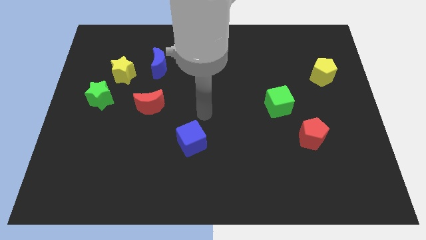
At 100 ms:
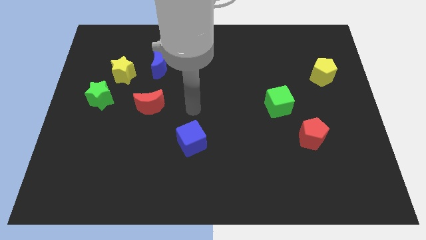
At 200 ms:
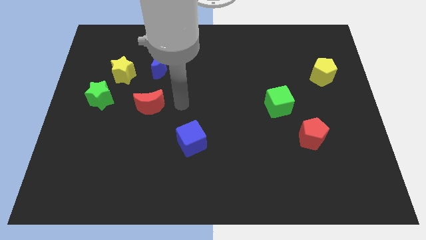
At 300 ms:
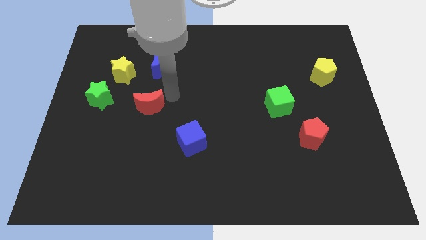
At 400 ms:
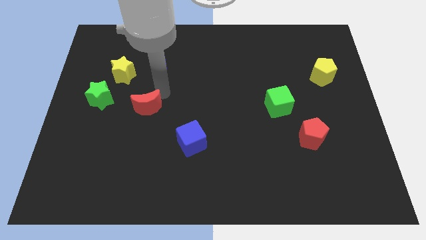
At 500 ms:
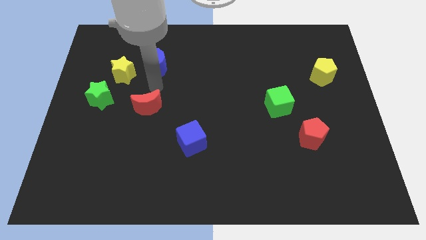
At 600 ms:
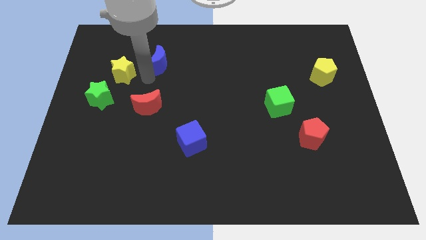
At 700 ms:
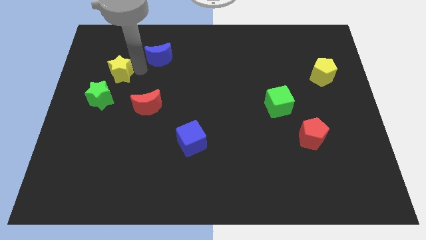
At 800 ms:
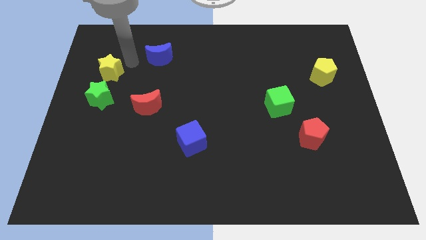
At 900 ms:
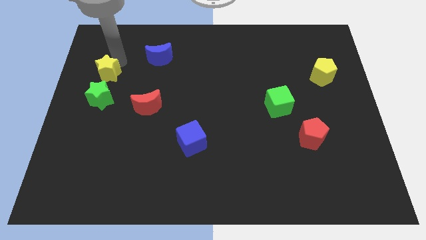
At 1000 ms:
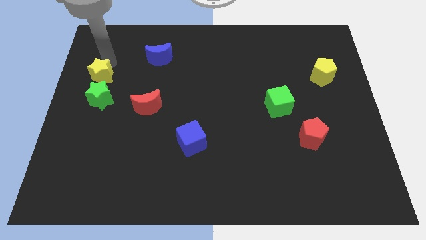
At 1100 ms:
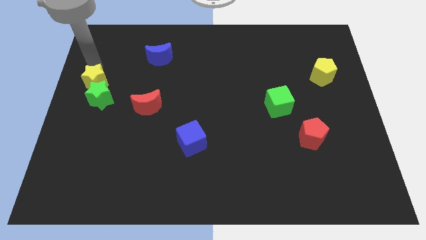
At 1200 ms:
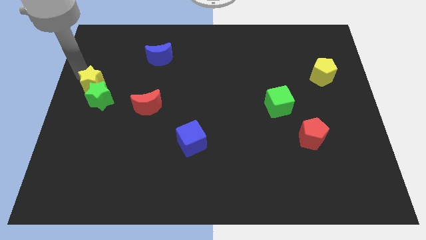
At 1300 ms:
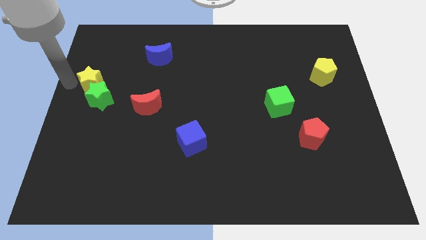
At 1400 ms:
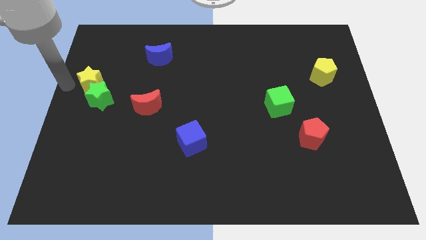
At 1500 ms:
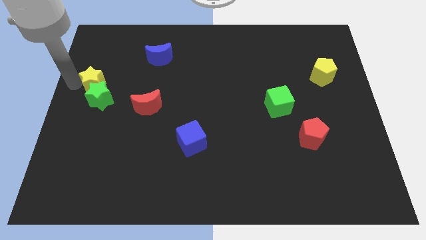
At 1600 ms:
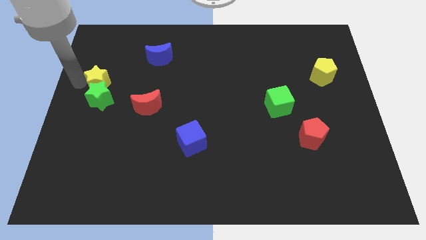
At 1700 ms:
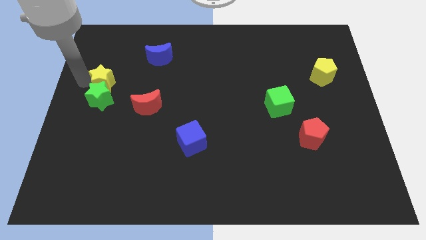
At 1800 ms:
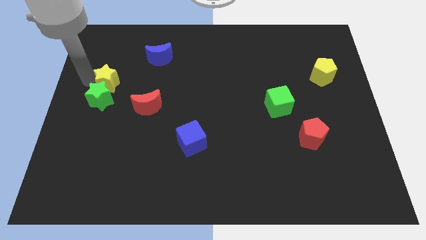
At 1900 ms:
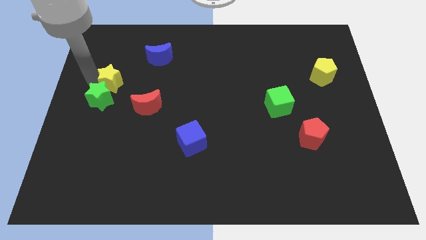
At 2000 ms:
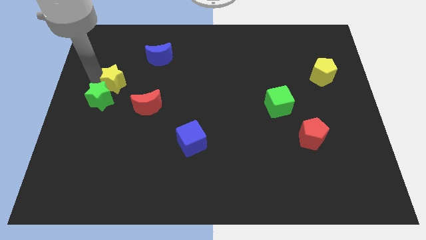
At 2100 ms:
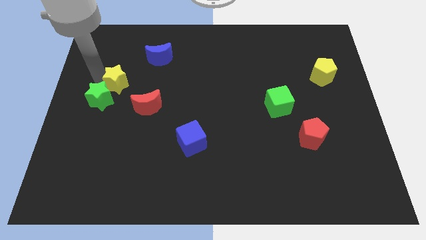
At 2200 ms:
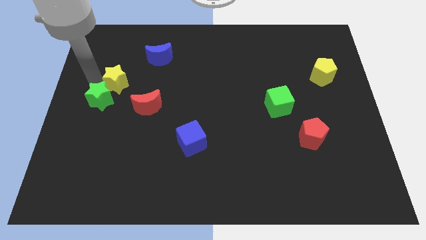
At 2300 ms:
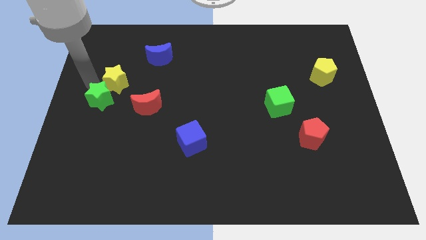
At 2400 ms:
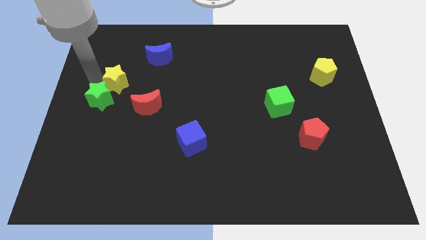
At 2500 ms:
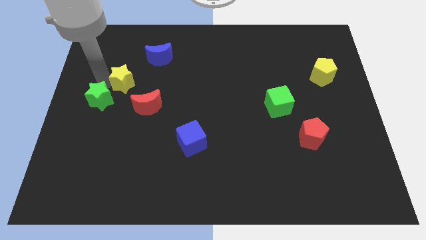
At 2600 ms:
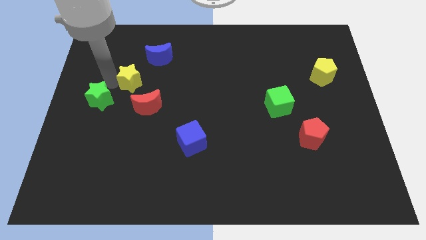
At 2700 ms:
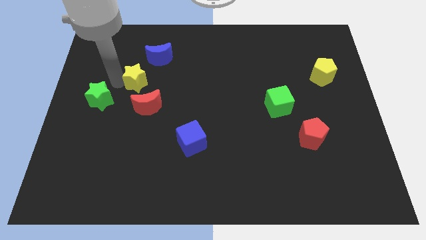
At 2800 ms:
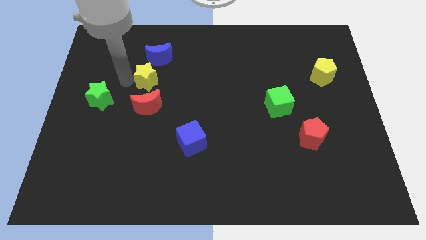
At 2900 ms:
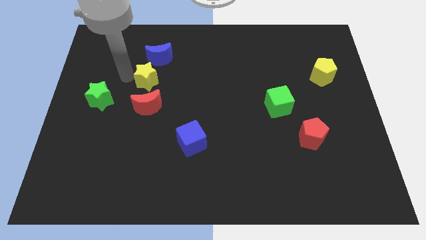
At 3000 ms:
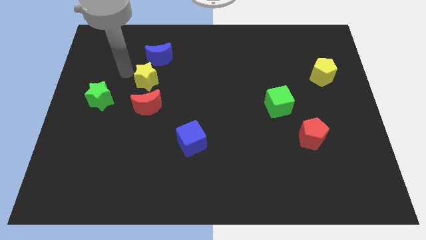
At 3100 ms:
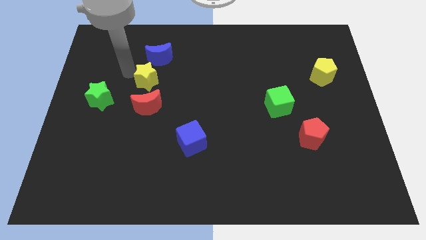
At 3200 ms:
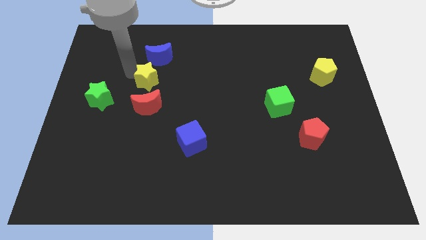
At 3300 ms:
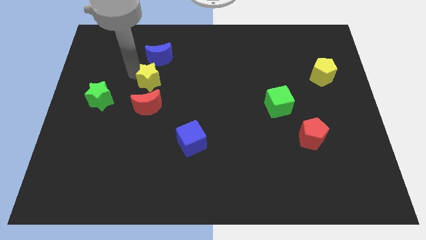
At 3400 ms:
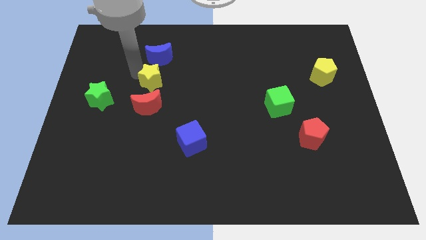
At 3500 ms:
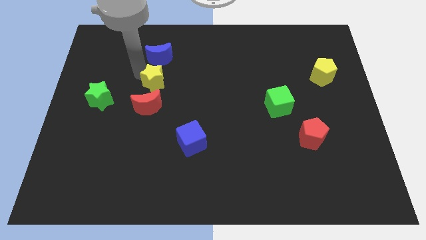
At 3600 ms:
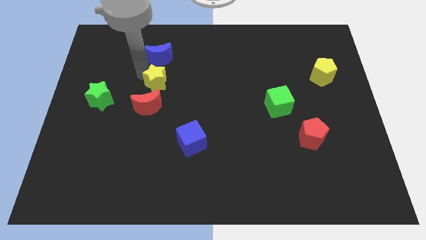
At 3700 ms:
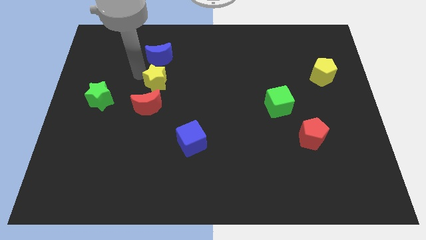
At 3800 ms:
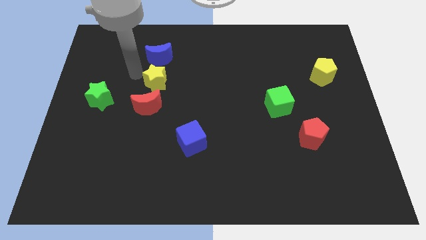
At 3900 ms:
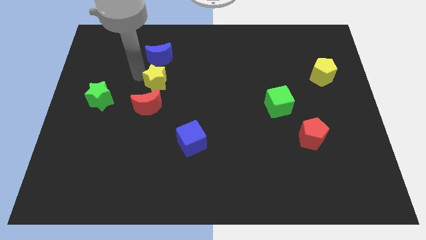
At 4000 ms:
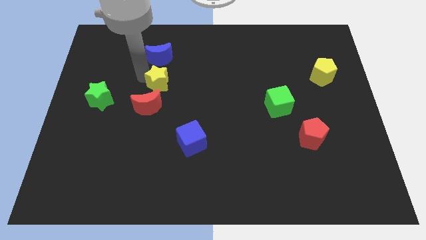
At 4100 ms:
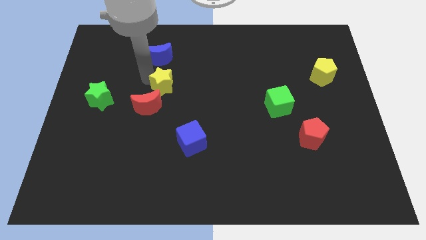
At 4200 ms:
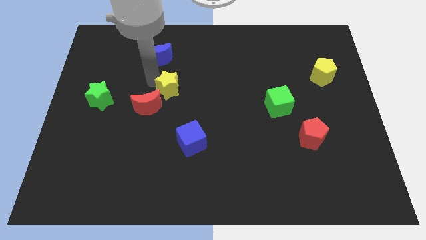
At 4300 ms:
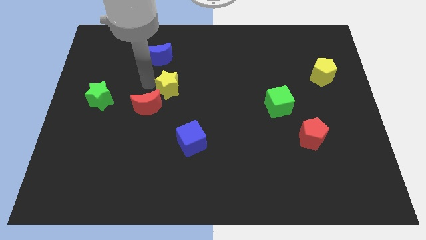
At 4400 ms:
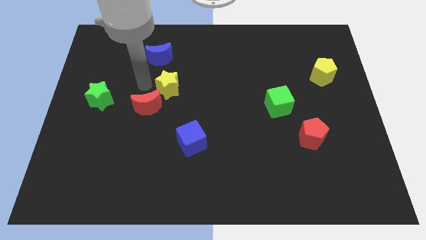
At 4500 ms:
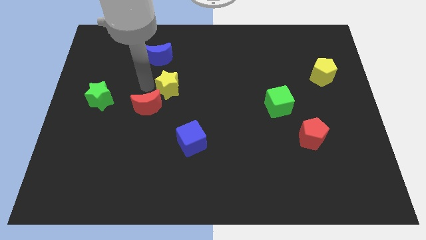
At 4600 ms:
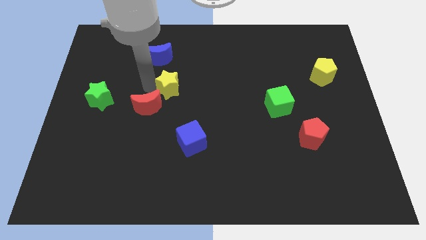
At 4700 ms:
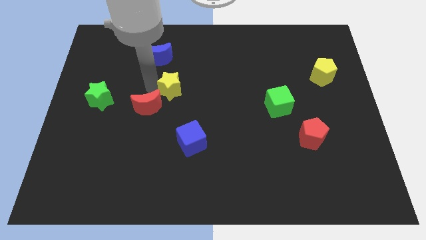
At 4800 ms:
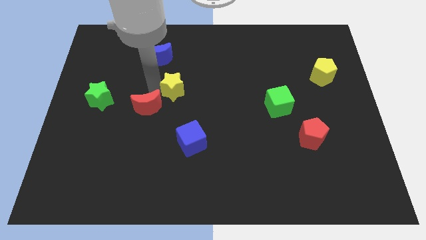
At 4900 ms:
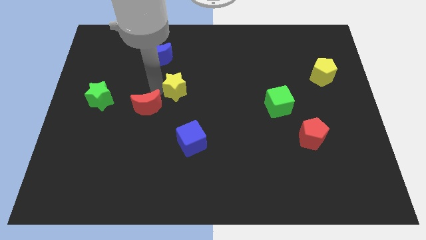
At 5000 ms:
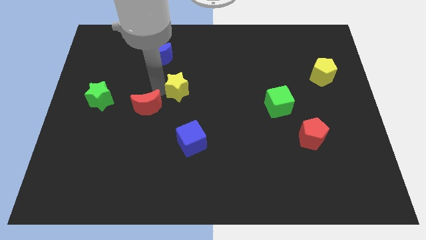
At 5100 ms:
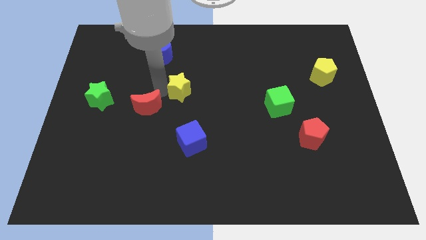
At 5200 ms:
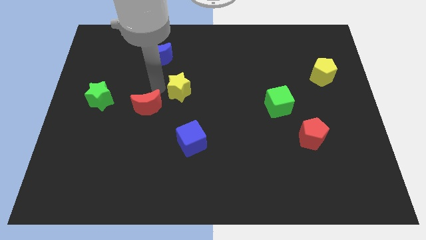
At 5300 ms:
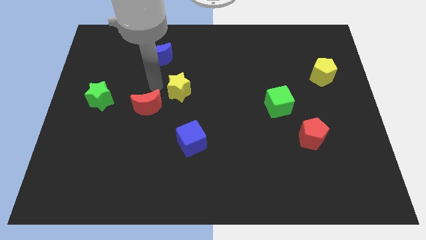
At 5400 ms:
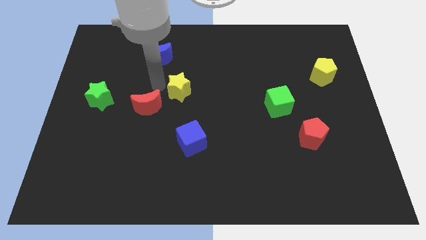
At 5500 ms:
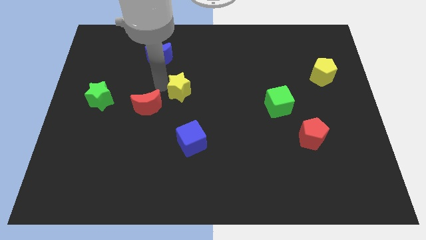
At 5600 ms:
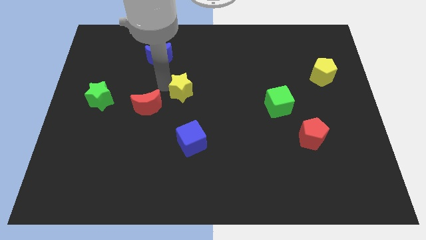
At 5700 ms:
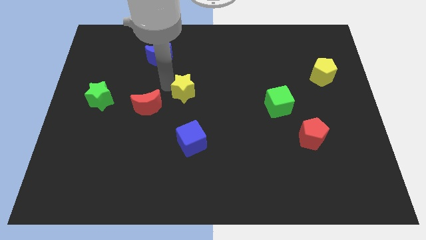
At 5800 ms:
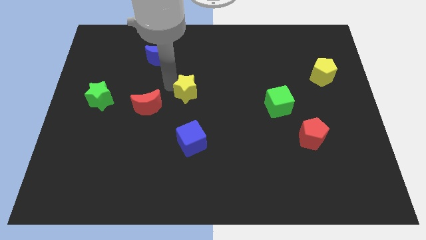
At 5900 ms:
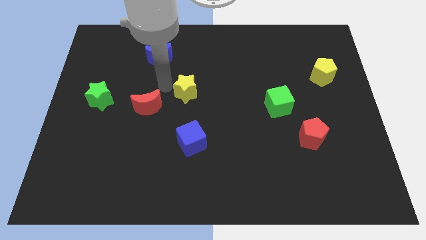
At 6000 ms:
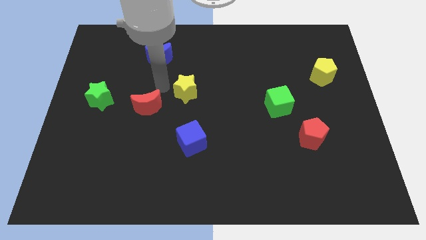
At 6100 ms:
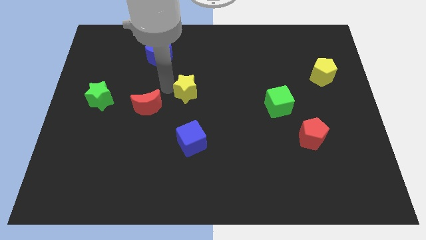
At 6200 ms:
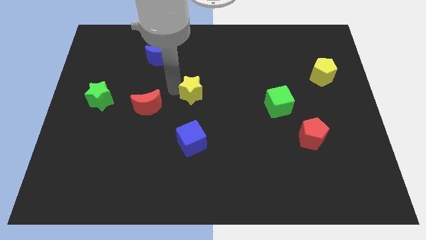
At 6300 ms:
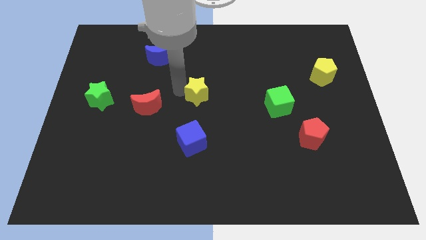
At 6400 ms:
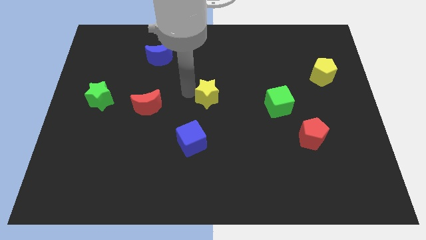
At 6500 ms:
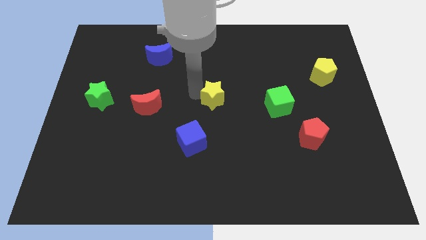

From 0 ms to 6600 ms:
slide the yellow star to the left side of the green cube

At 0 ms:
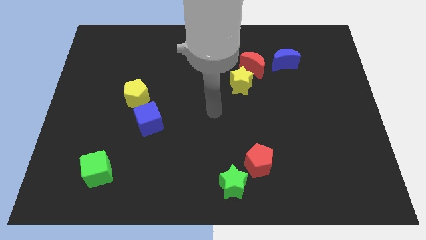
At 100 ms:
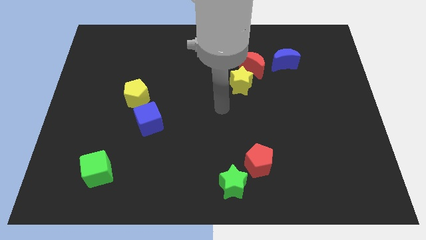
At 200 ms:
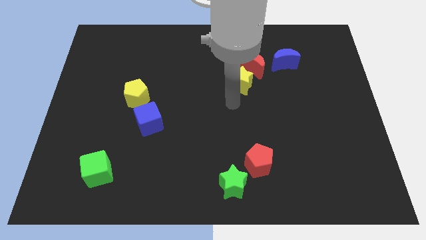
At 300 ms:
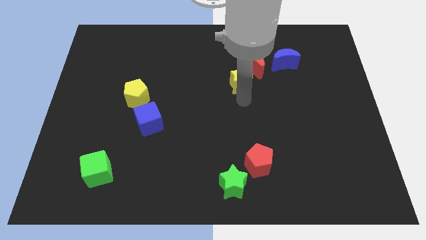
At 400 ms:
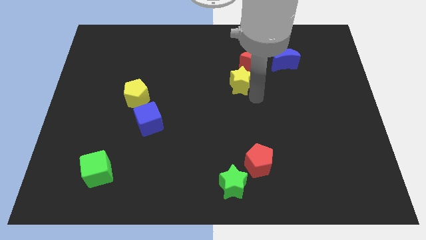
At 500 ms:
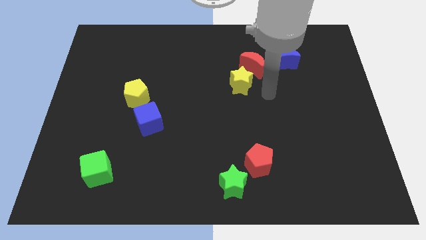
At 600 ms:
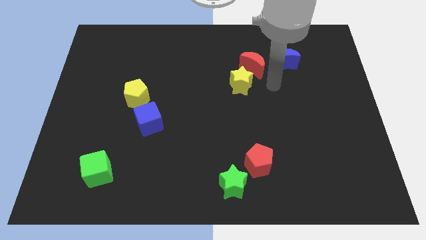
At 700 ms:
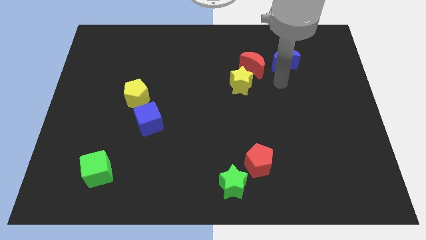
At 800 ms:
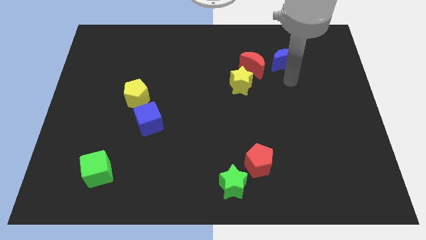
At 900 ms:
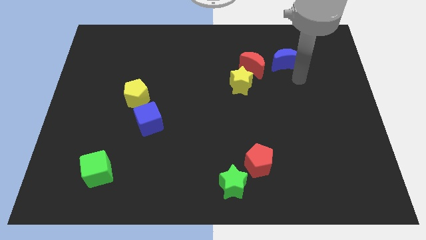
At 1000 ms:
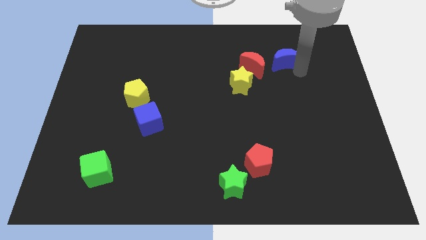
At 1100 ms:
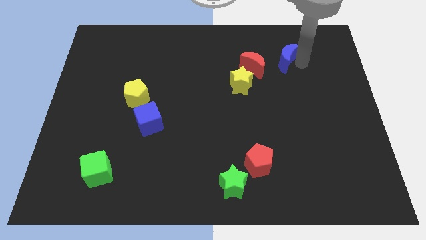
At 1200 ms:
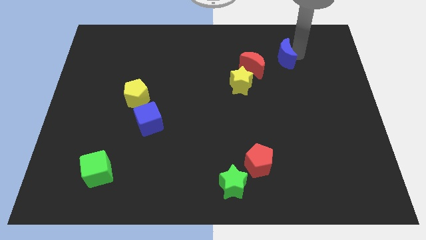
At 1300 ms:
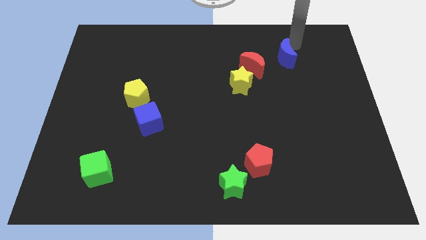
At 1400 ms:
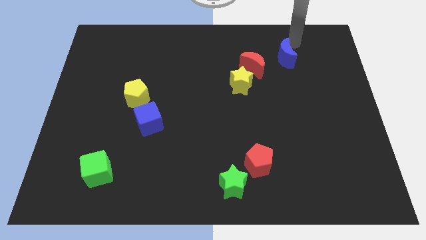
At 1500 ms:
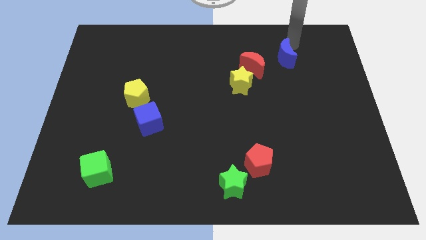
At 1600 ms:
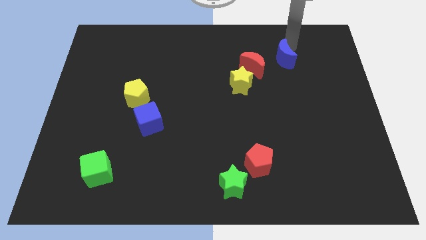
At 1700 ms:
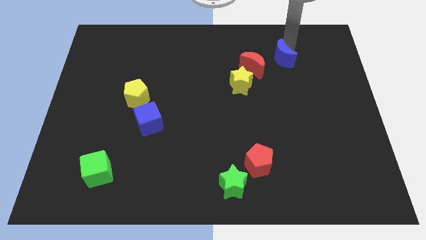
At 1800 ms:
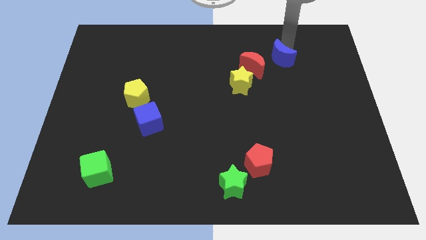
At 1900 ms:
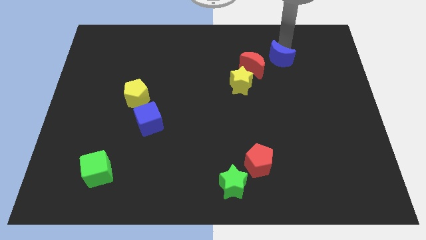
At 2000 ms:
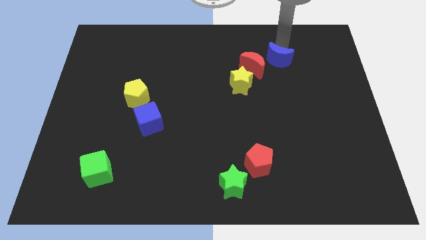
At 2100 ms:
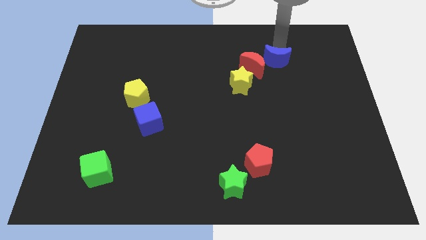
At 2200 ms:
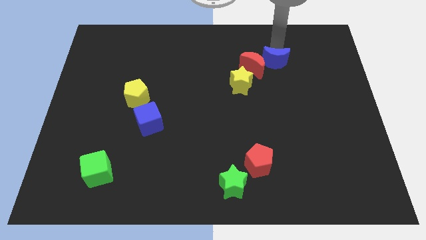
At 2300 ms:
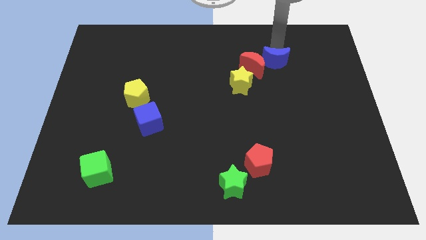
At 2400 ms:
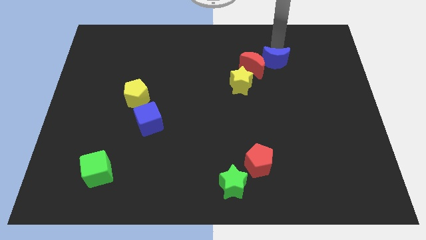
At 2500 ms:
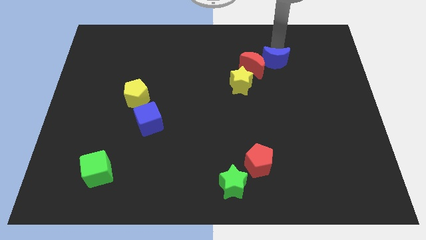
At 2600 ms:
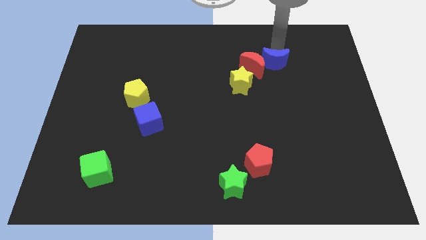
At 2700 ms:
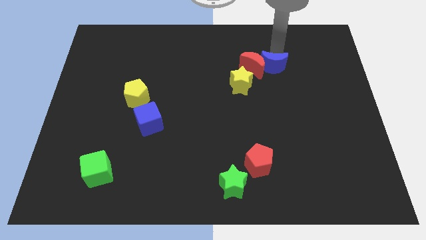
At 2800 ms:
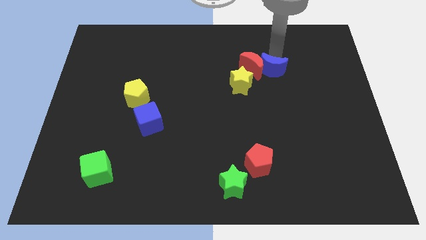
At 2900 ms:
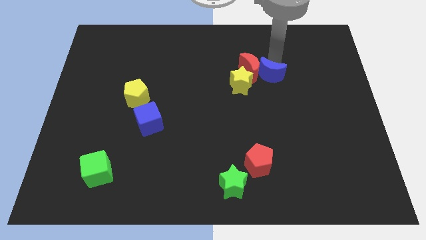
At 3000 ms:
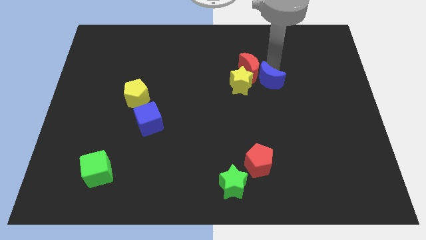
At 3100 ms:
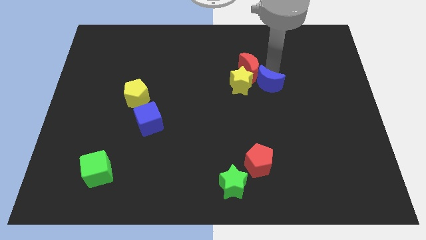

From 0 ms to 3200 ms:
slide the blue moon to the bottom right of the yellow star
